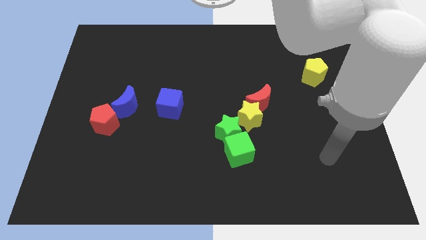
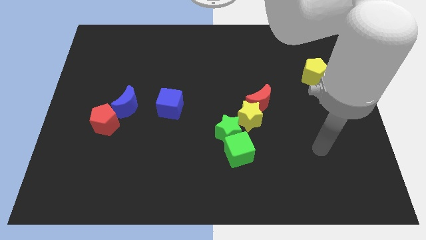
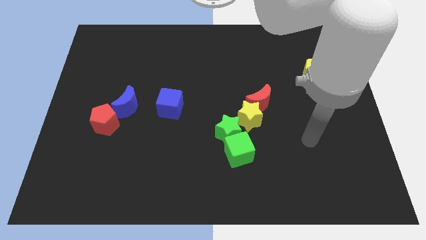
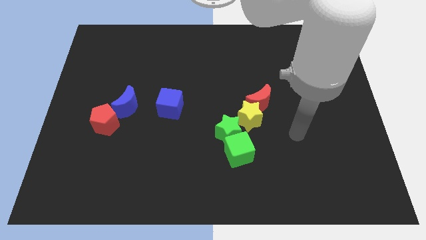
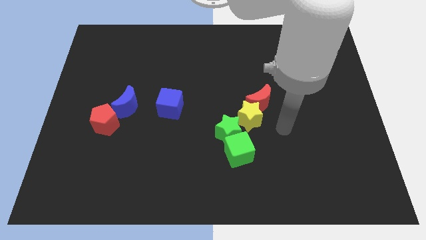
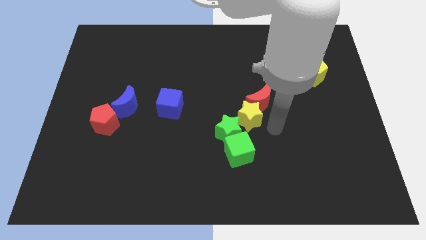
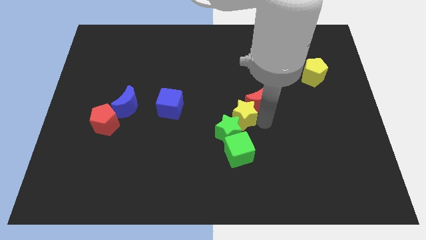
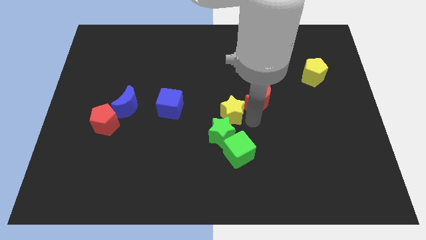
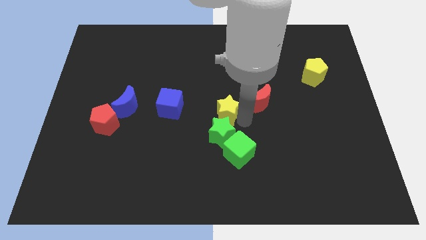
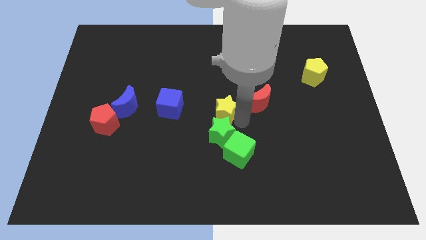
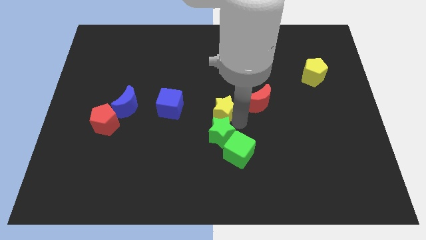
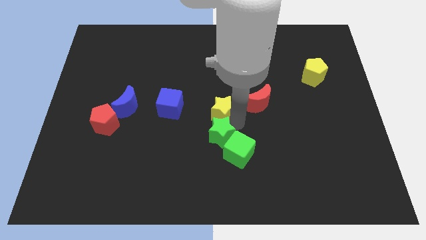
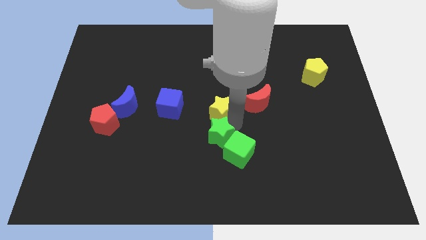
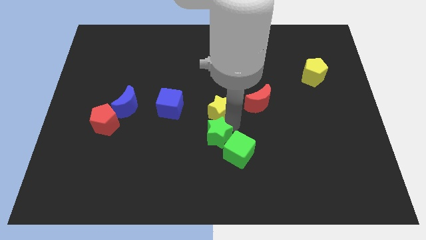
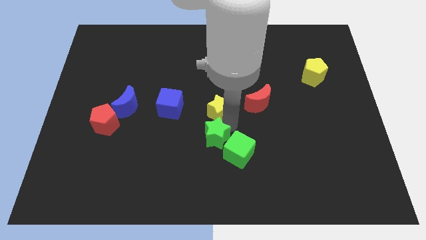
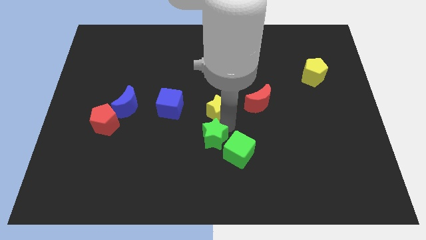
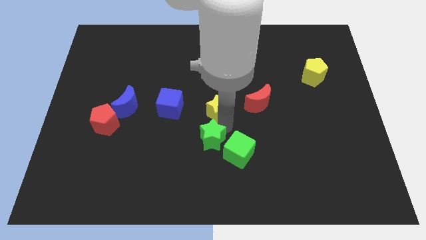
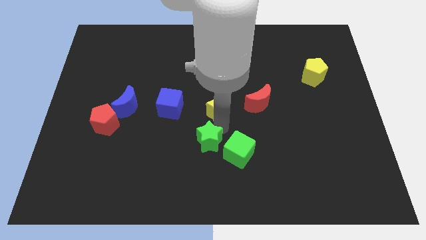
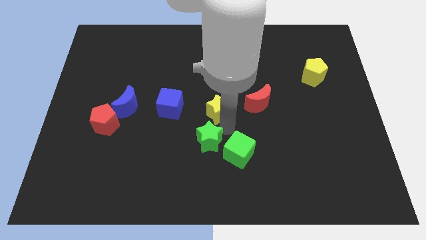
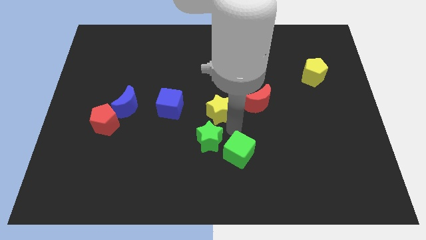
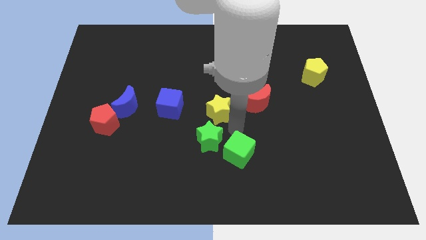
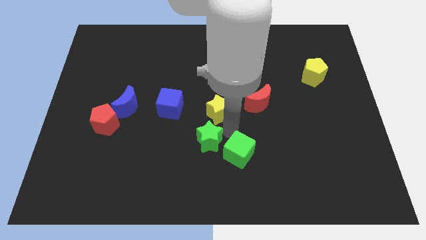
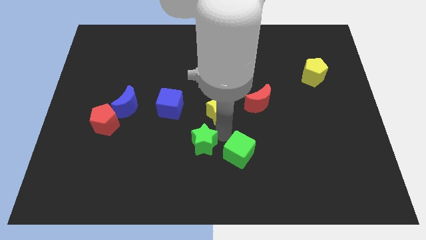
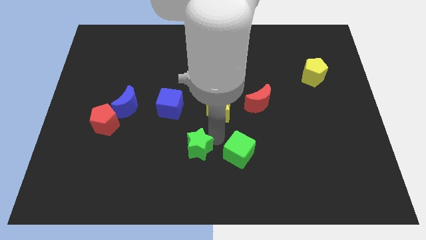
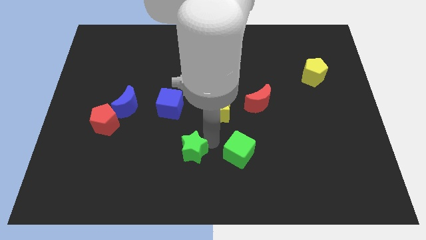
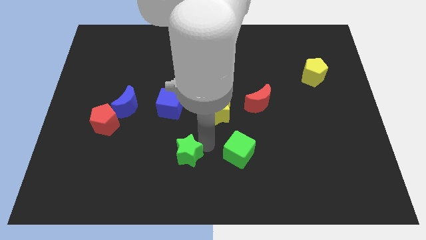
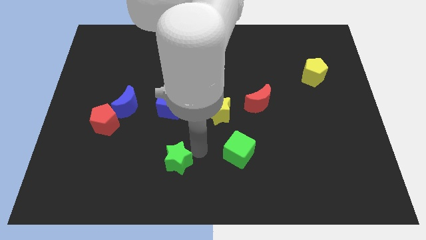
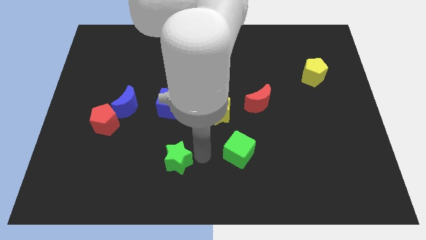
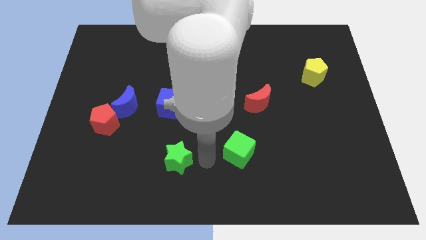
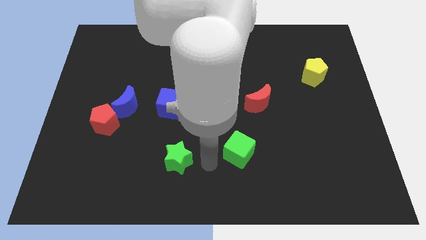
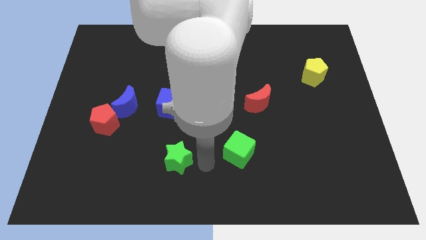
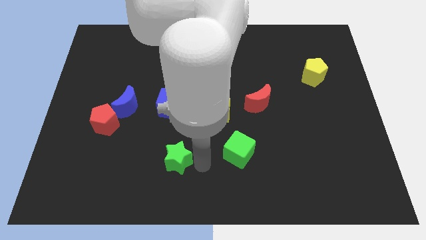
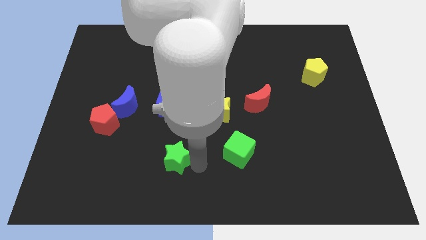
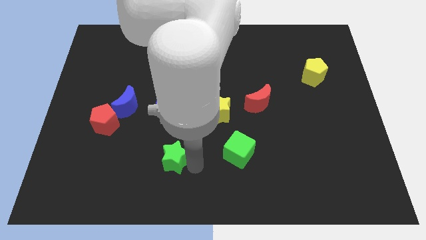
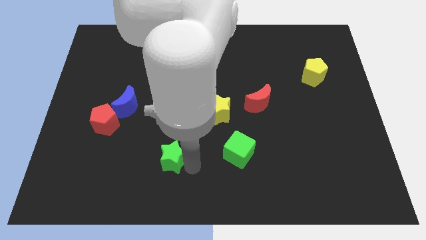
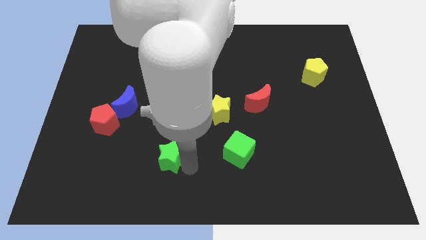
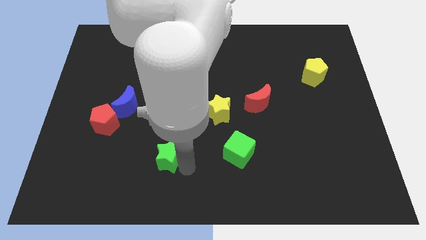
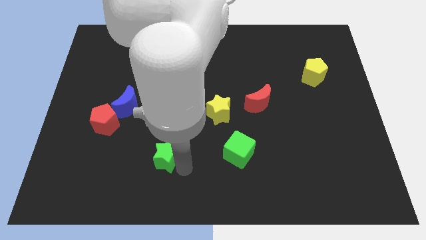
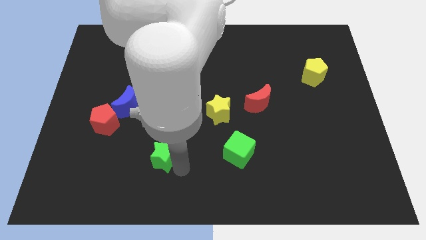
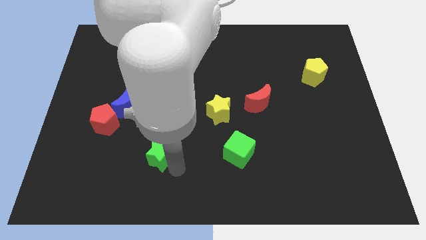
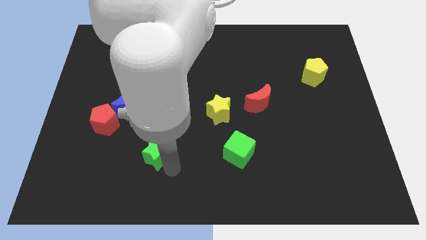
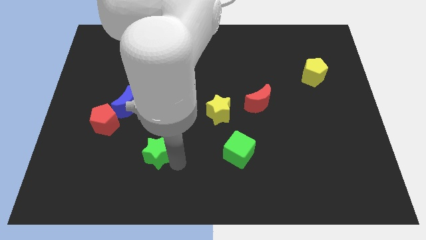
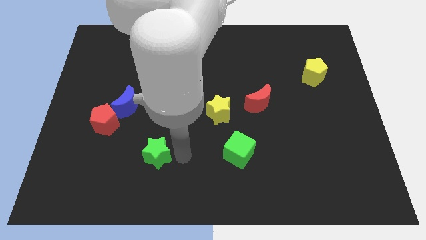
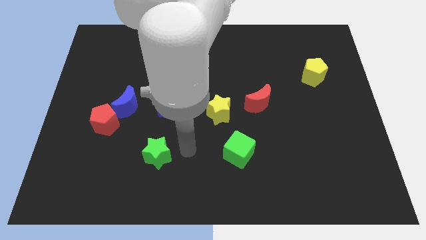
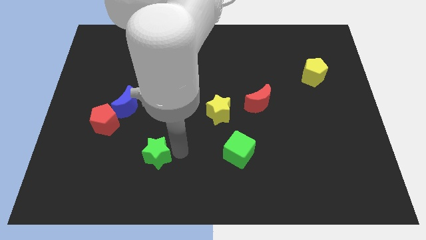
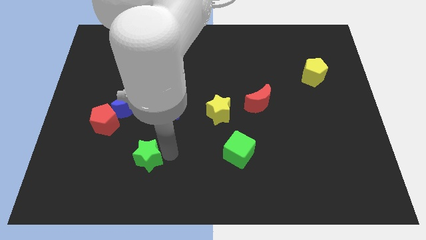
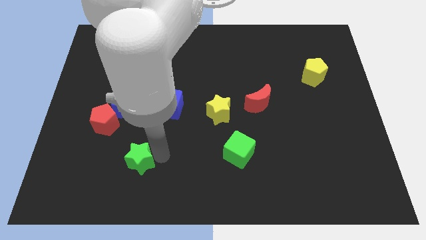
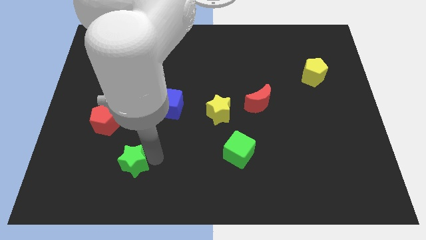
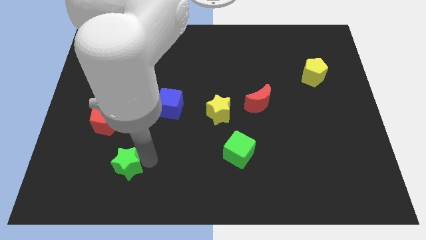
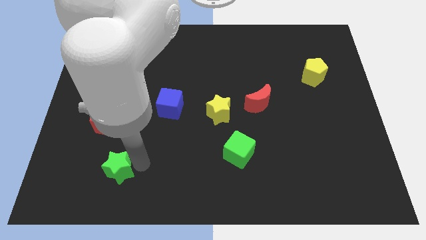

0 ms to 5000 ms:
put the green star to the bottom side of the red pentagon

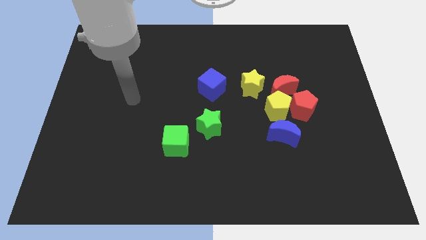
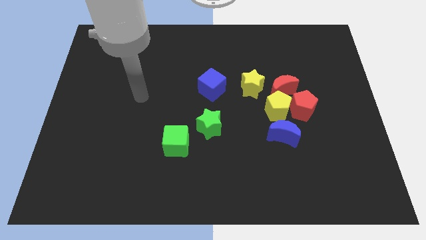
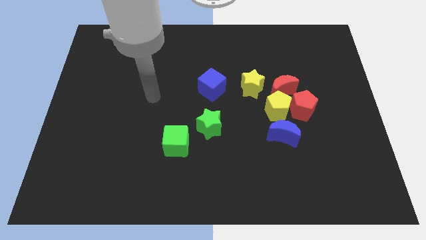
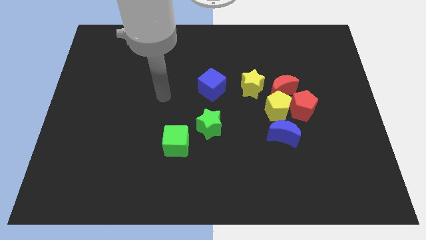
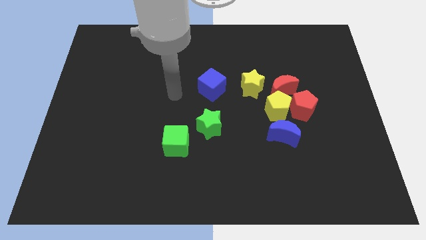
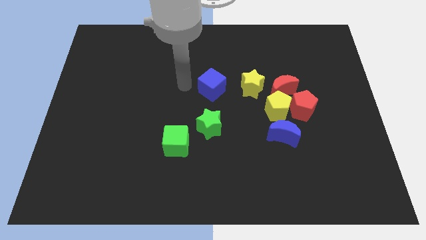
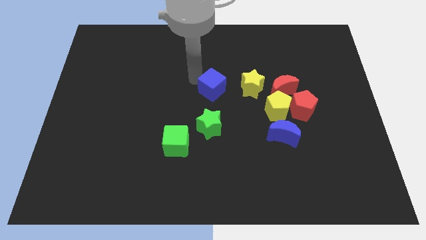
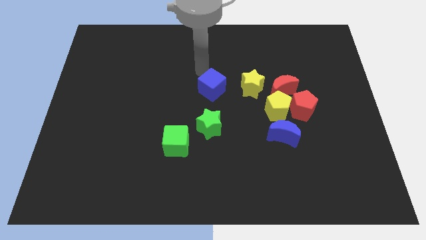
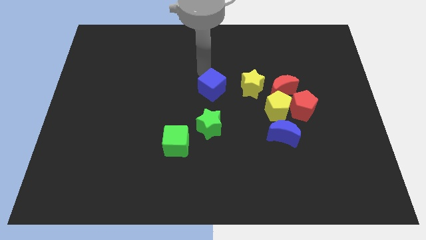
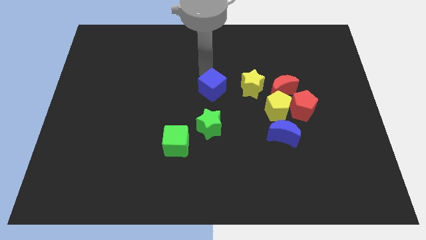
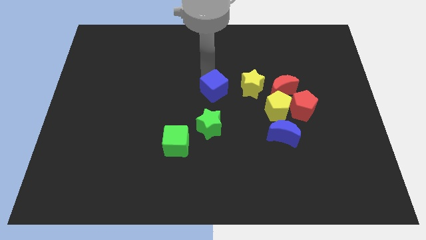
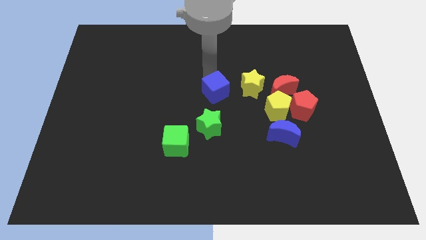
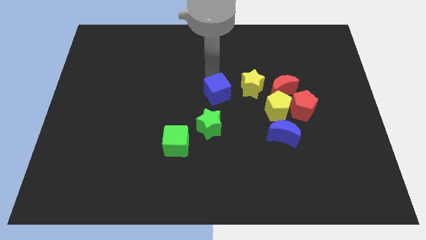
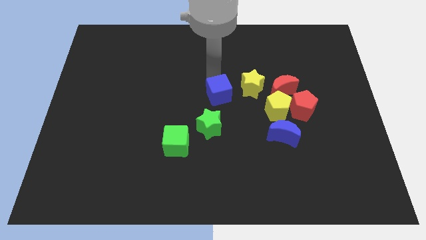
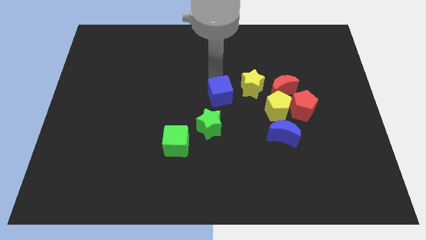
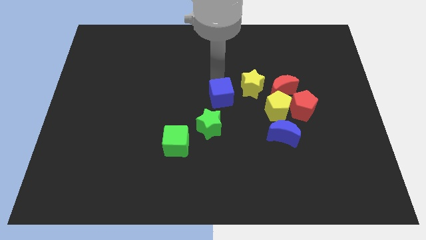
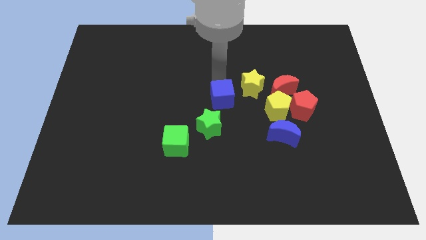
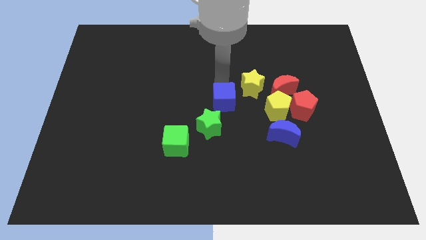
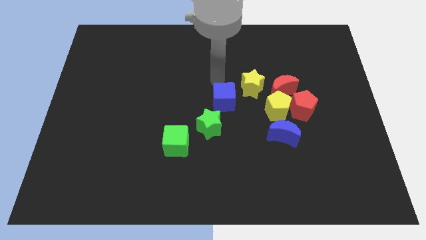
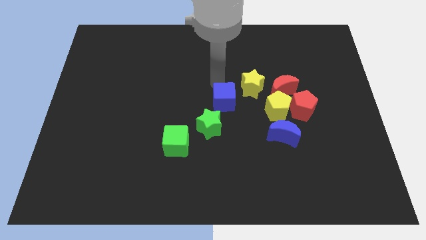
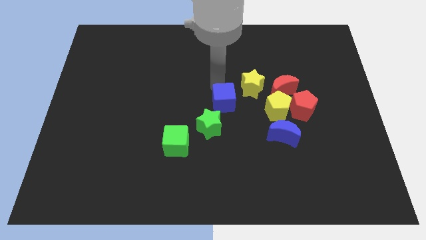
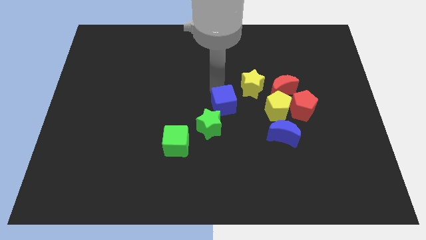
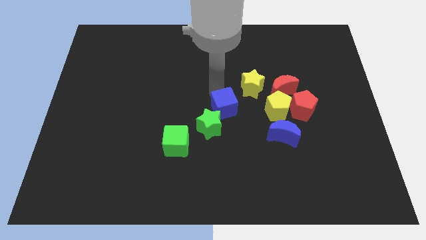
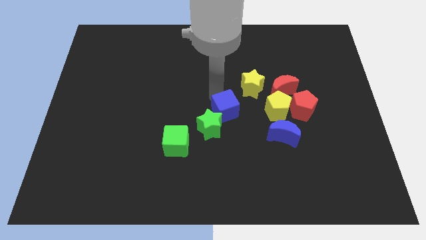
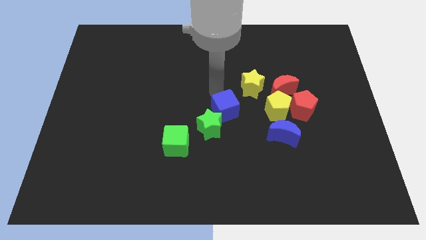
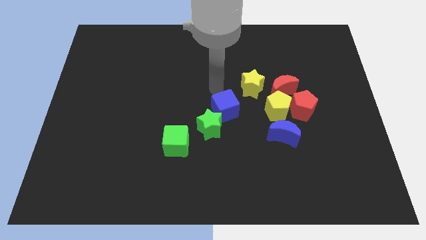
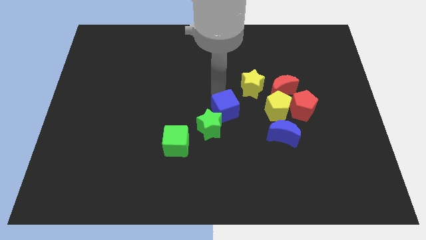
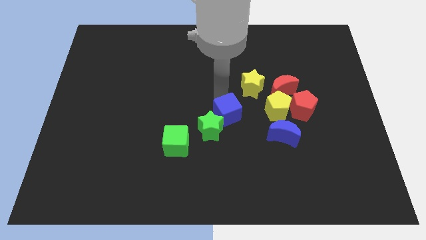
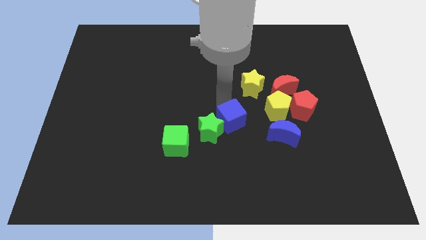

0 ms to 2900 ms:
move the blue cube just left of the blue moon
